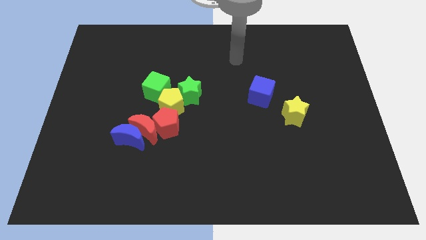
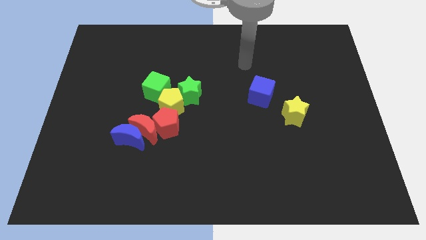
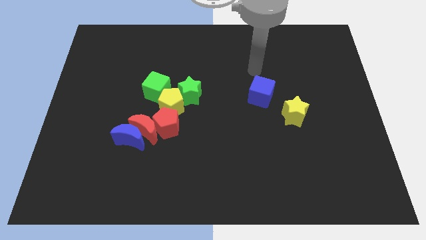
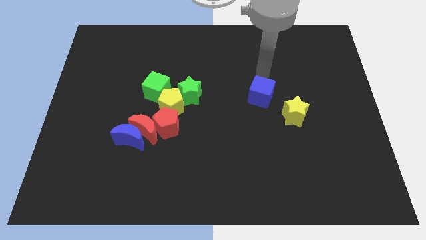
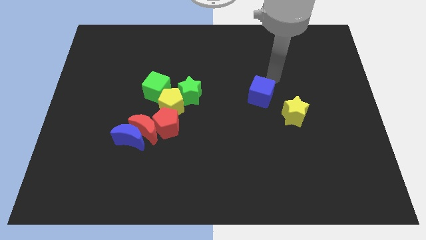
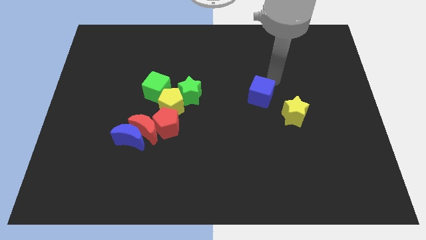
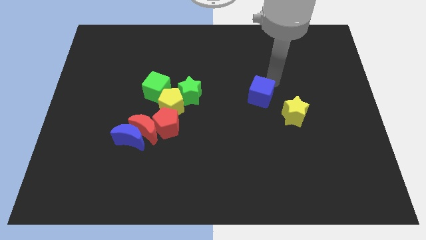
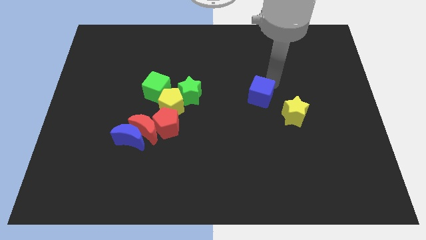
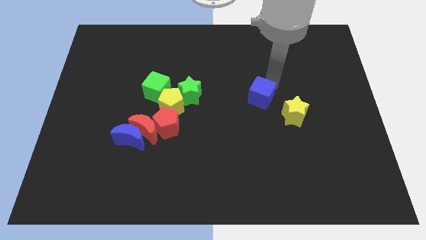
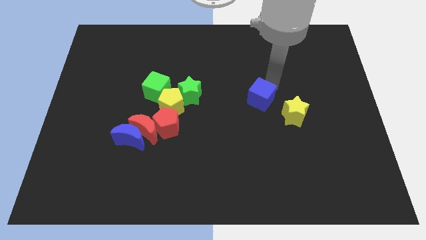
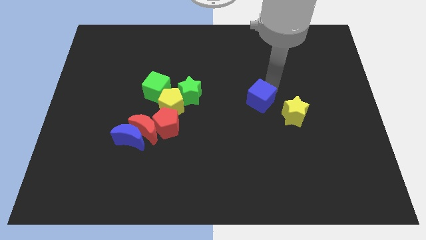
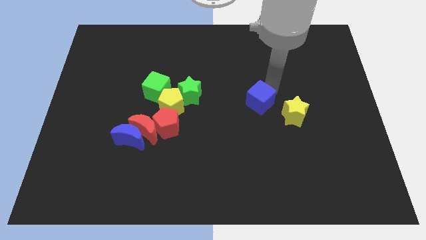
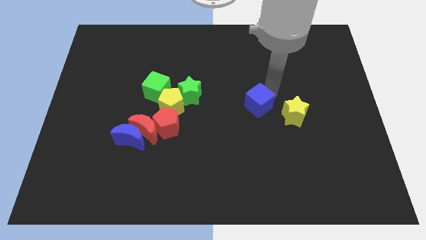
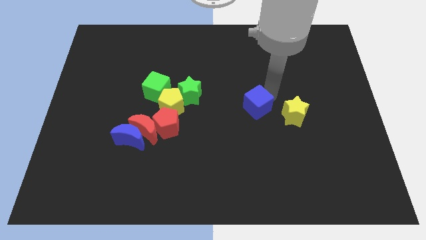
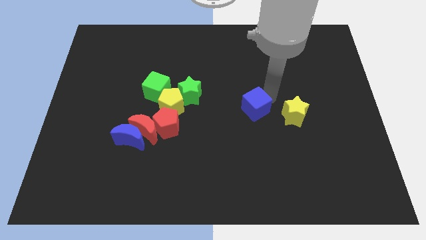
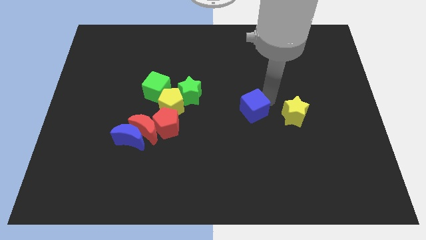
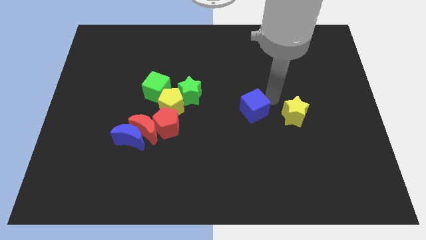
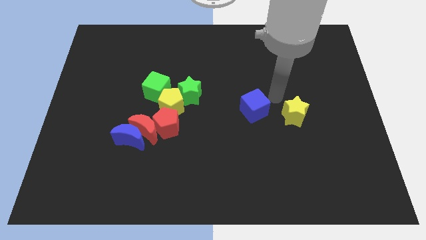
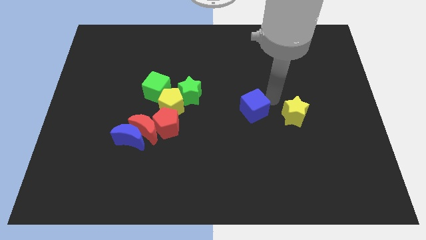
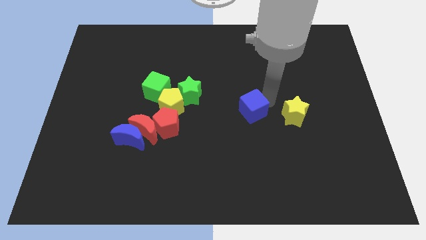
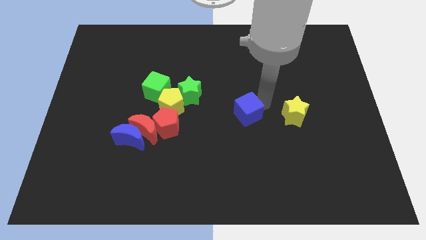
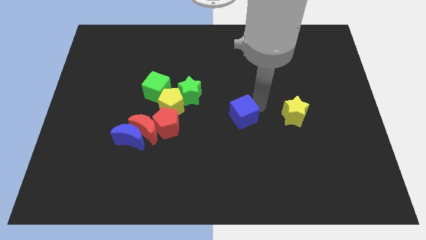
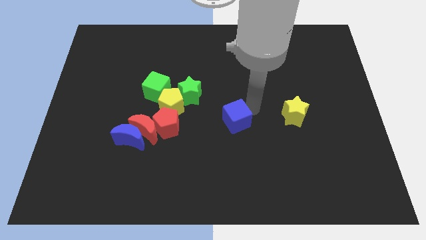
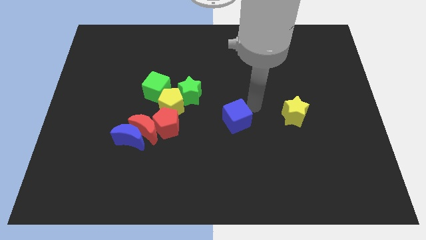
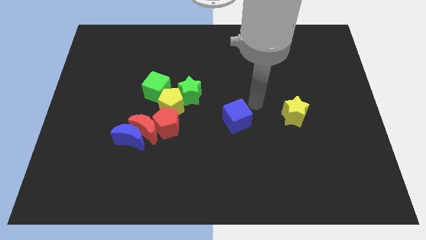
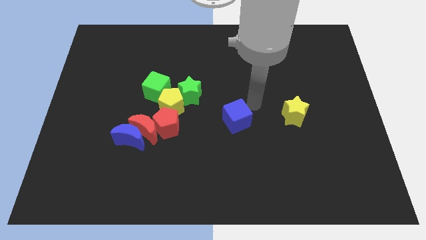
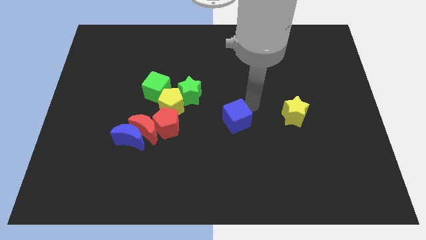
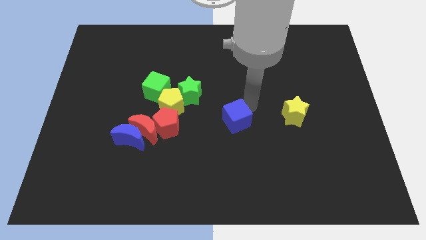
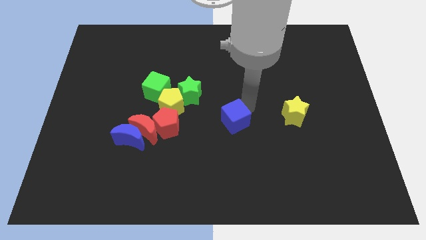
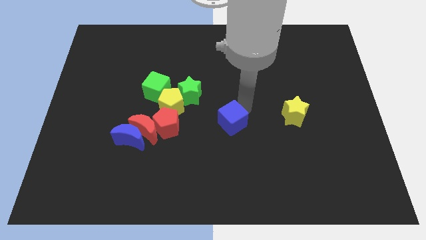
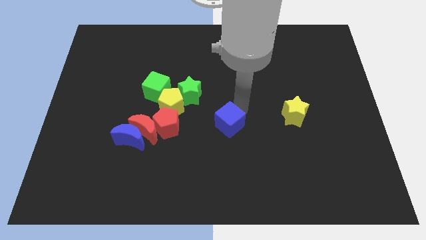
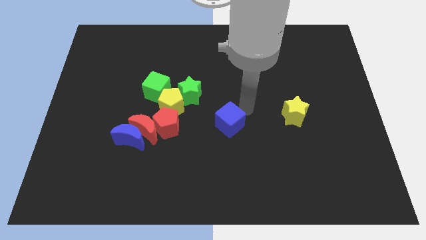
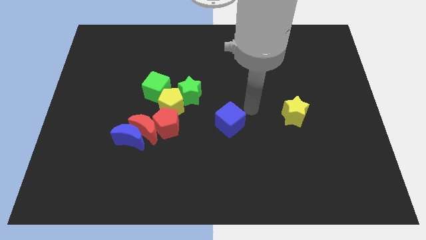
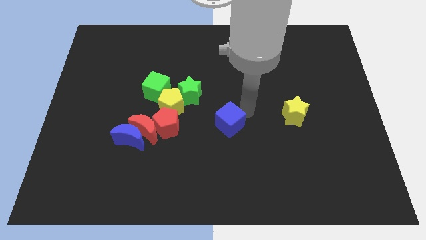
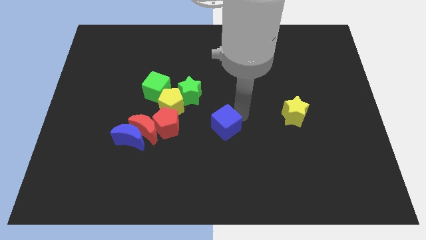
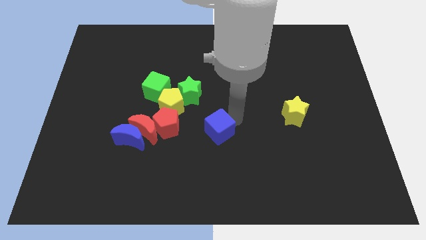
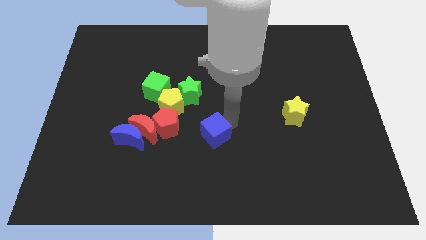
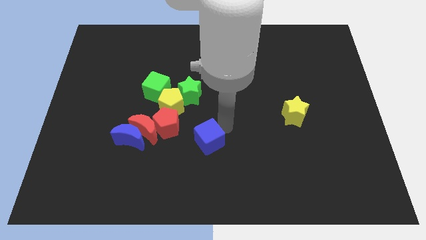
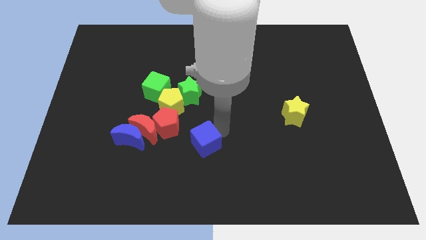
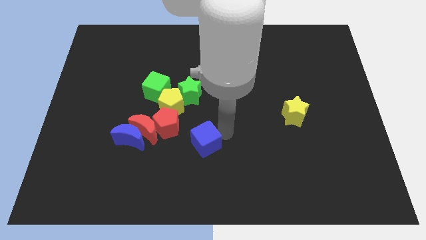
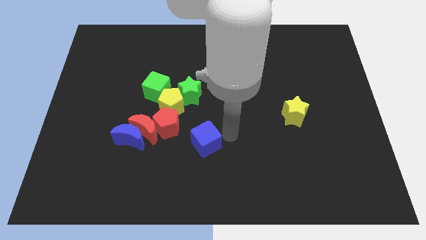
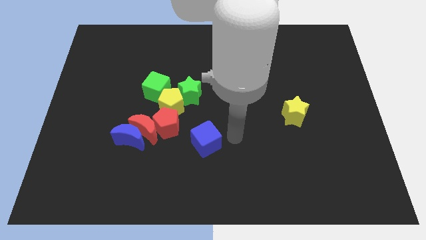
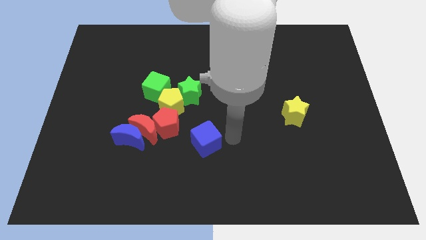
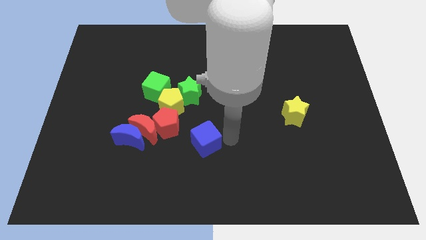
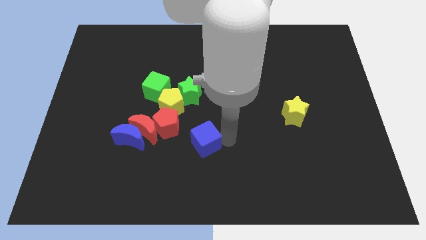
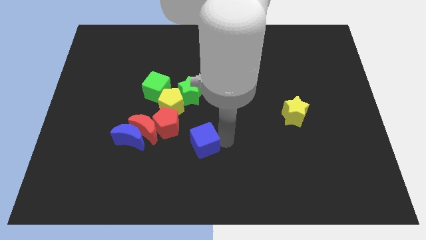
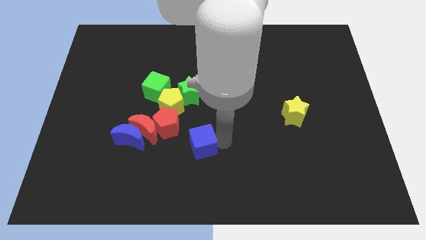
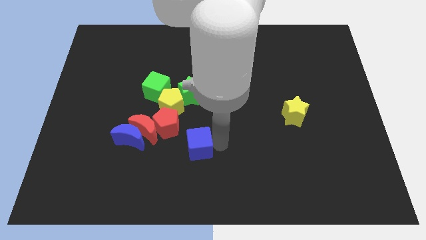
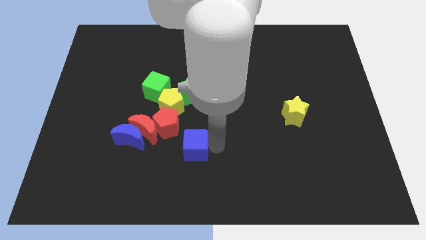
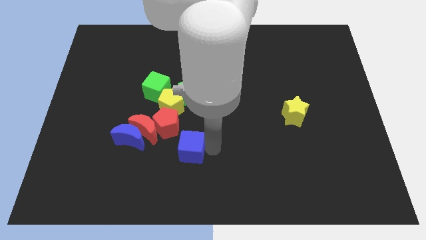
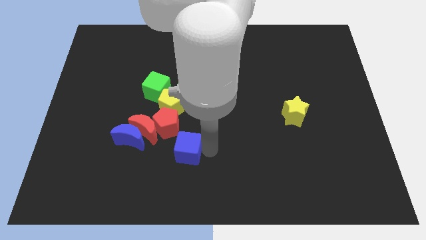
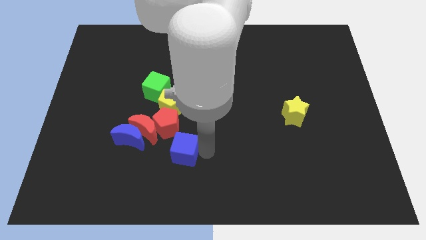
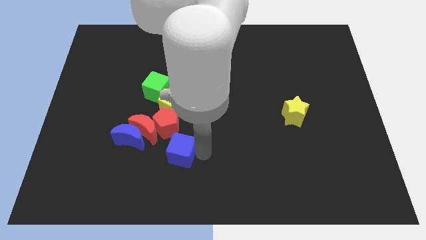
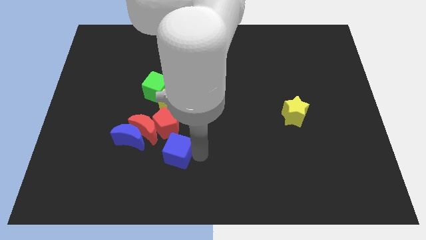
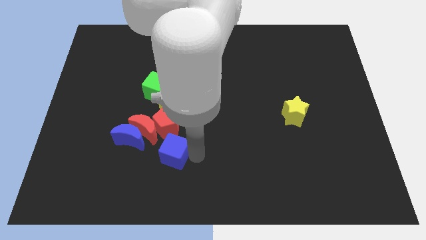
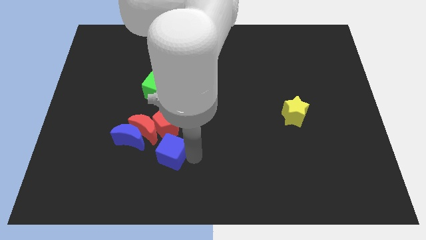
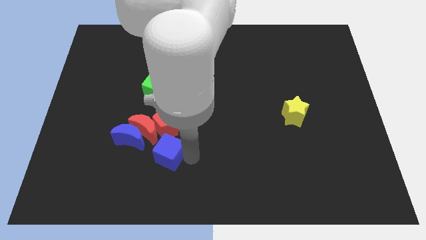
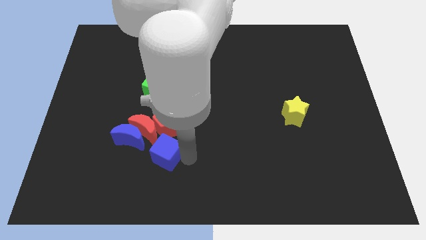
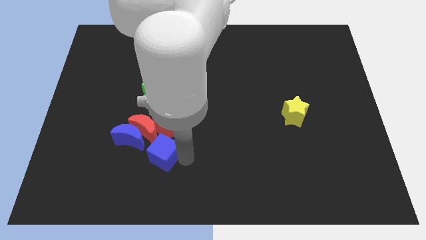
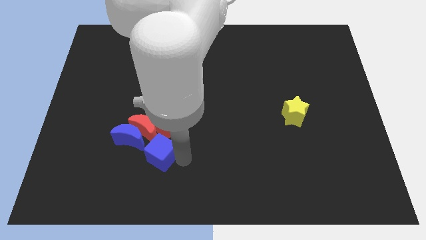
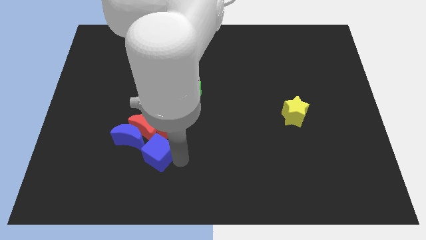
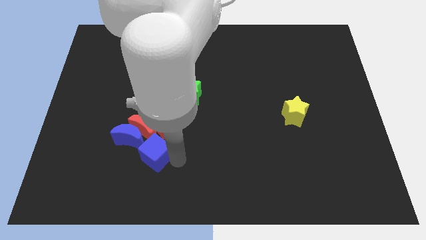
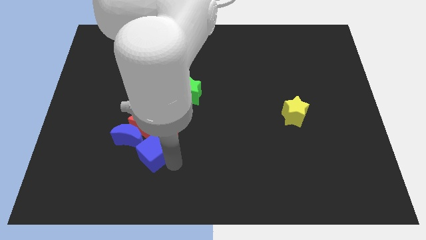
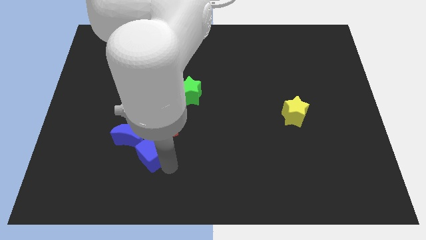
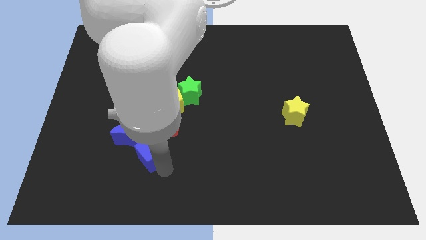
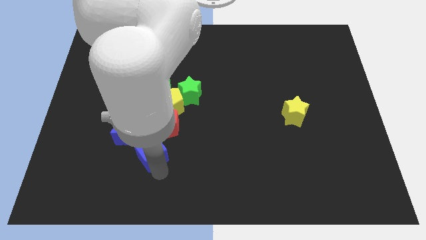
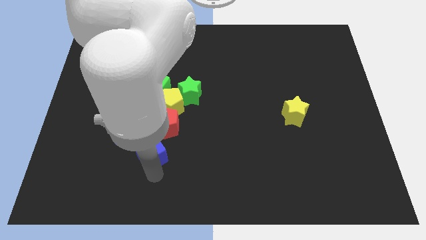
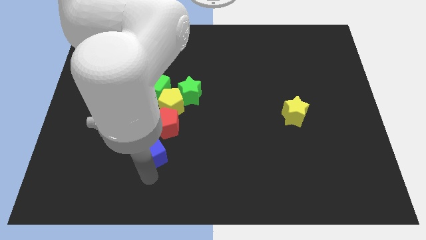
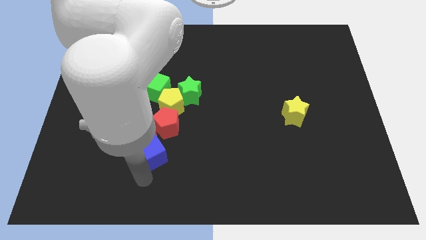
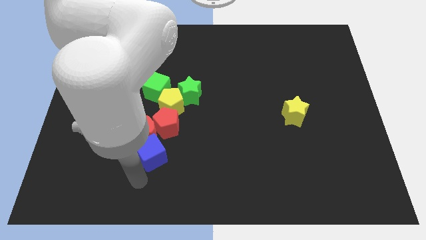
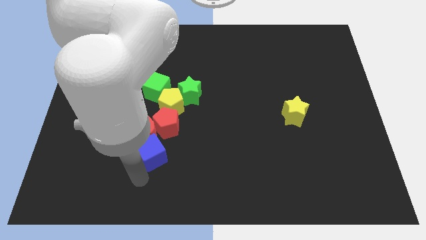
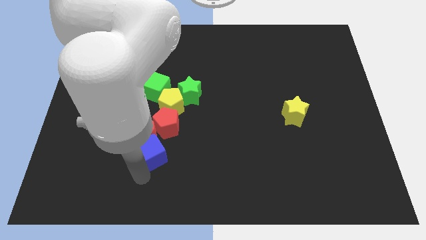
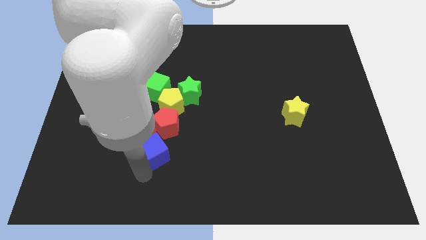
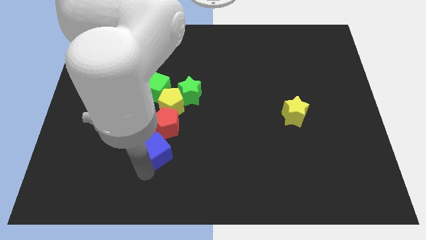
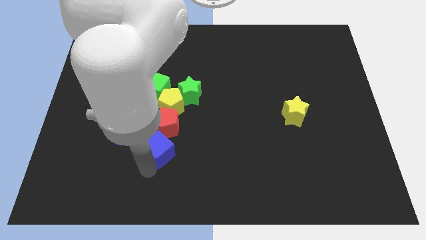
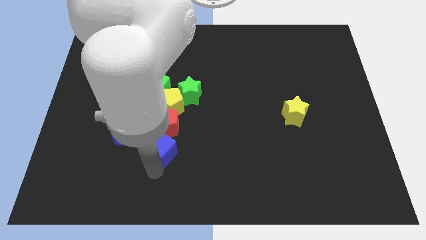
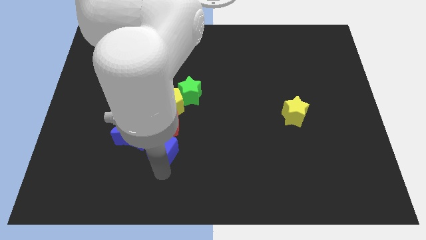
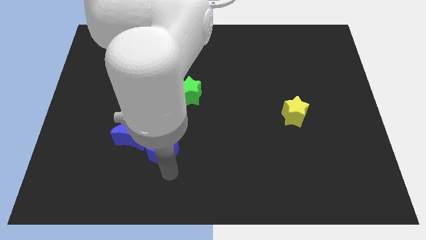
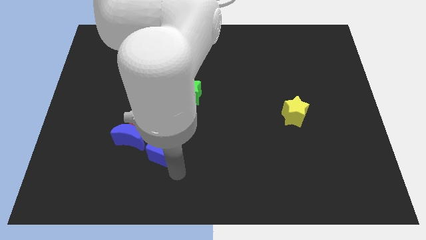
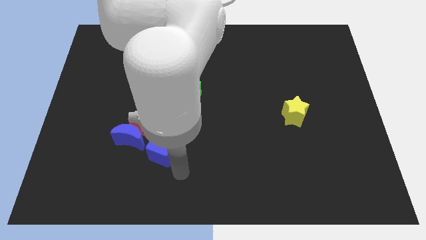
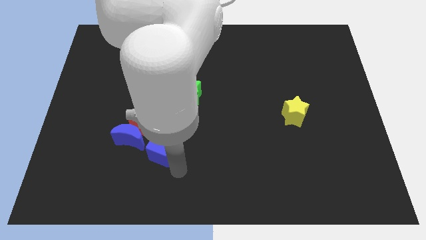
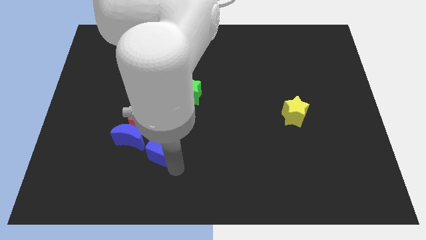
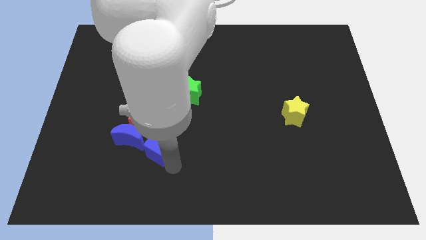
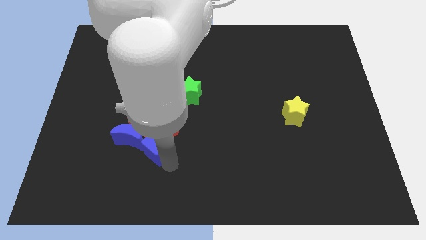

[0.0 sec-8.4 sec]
push the blue cube next to the red moon
